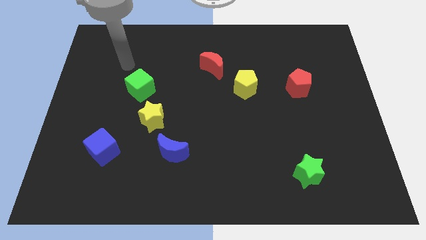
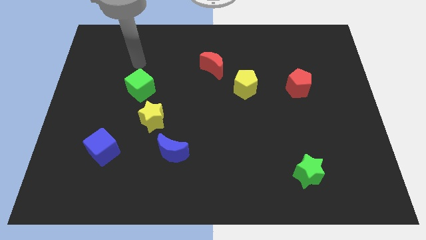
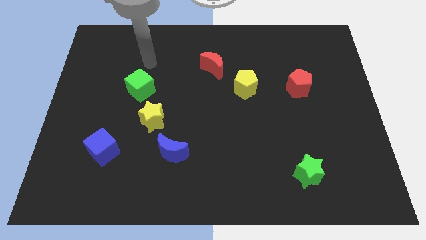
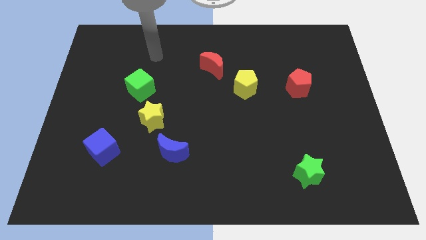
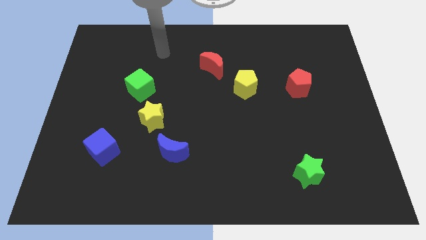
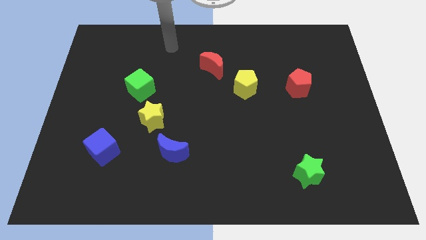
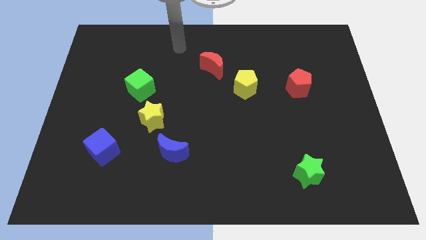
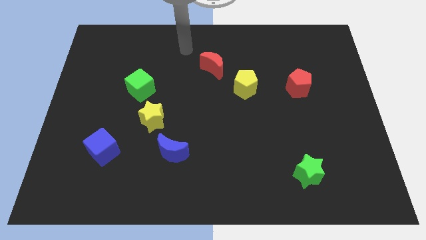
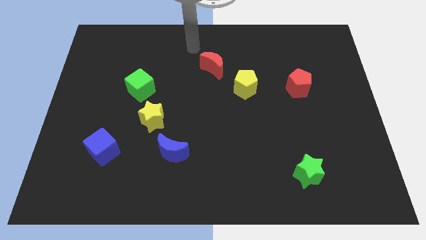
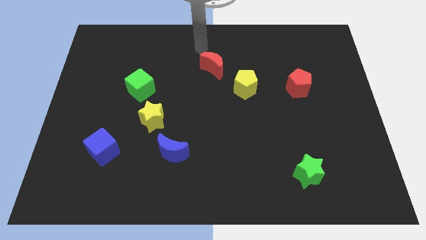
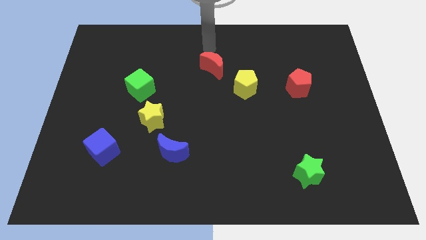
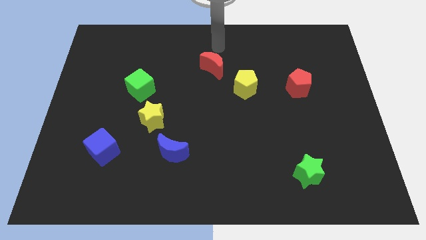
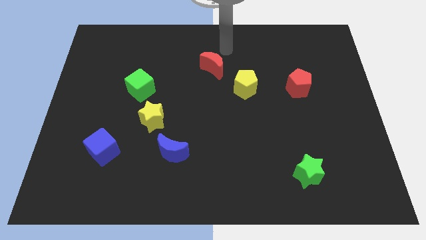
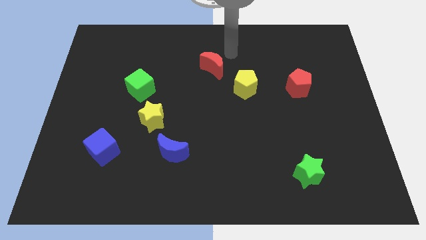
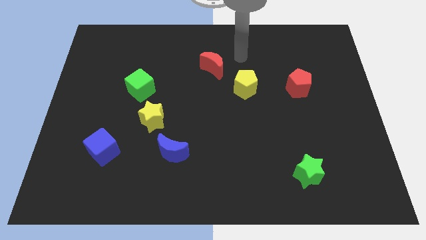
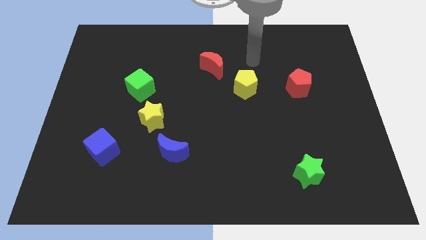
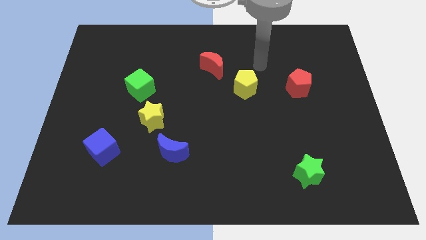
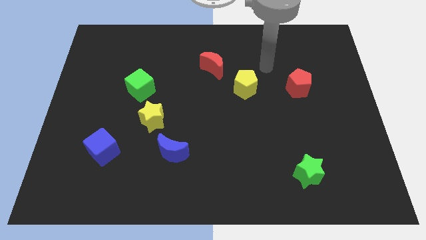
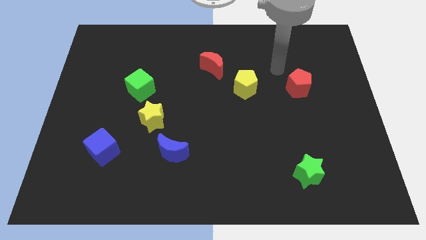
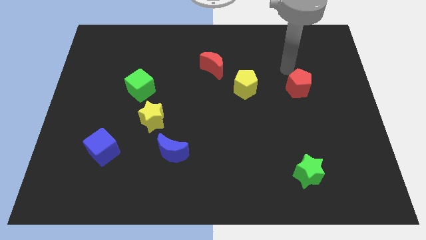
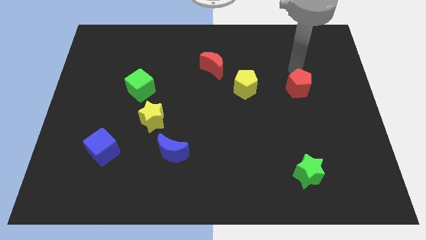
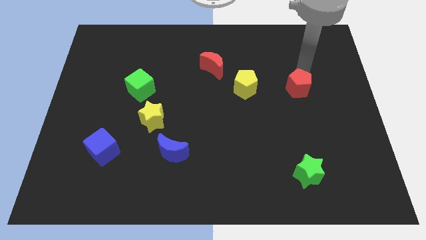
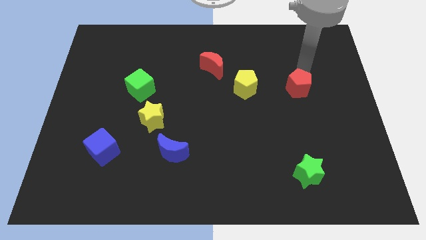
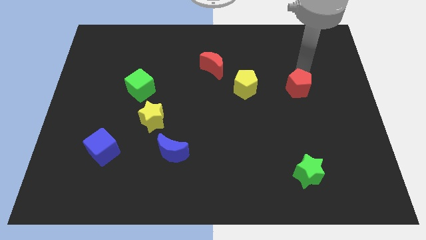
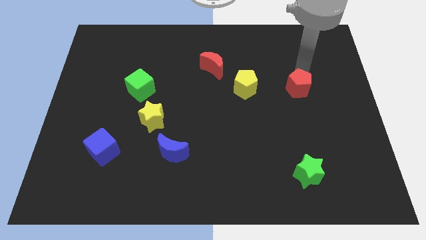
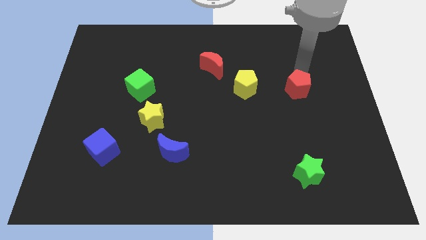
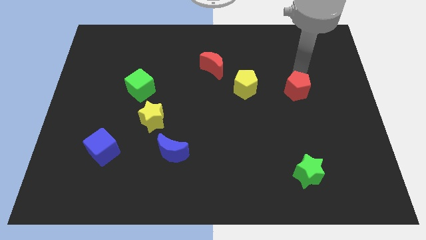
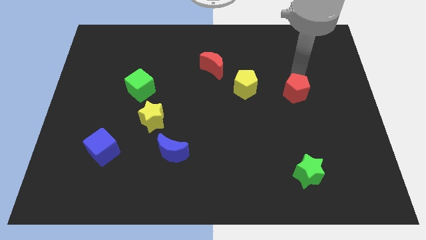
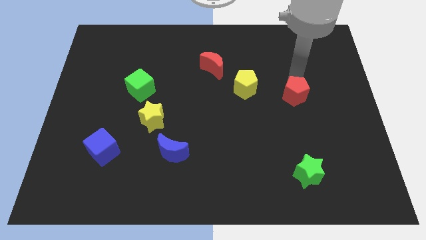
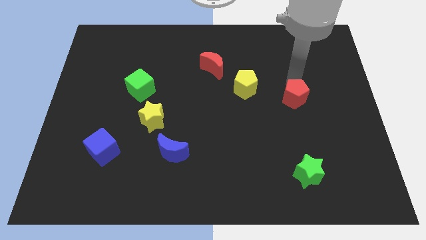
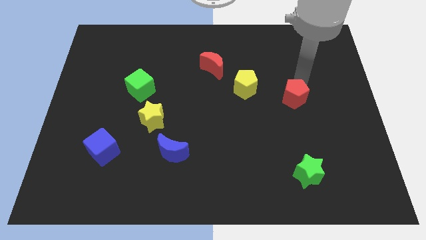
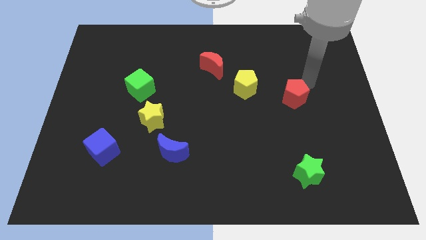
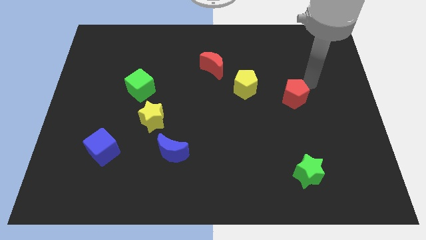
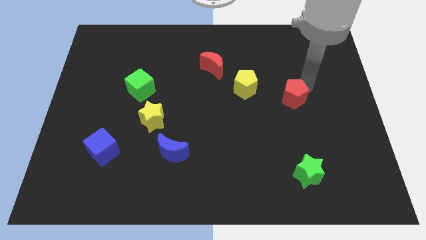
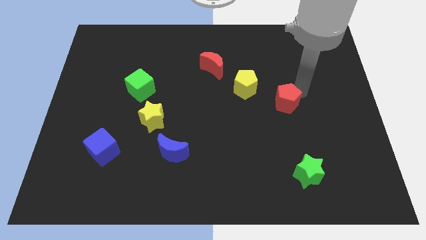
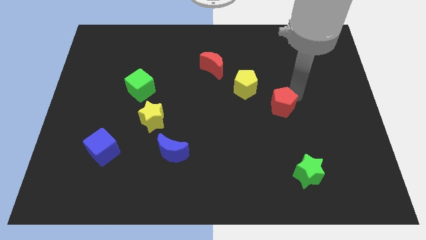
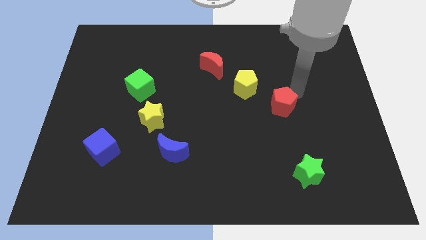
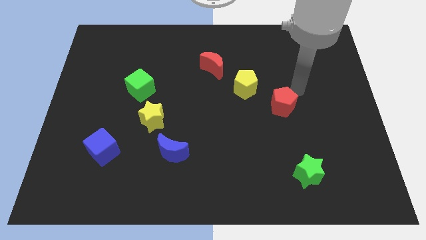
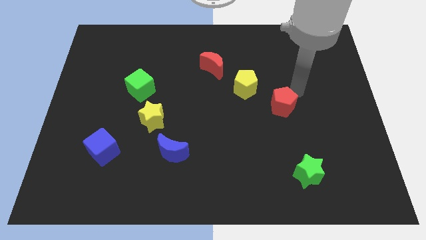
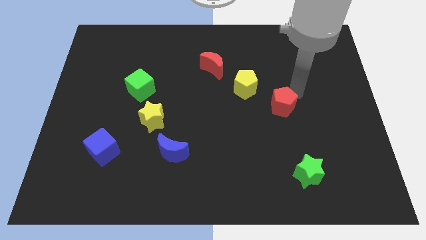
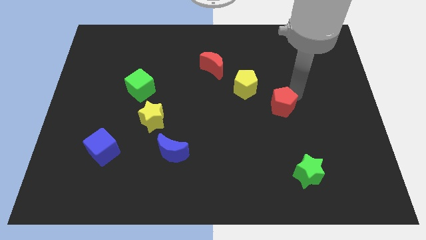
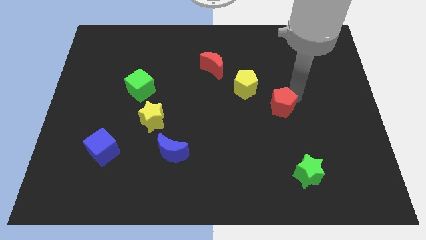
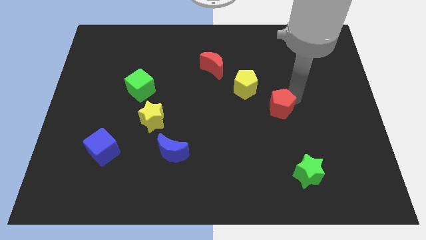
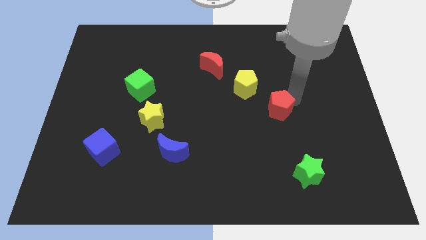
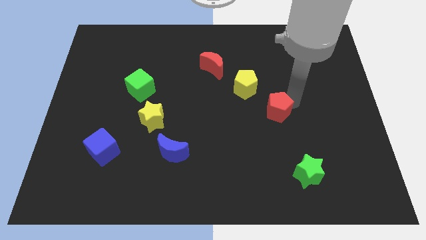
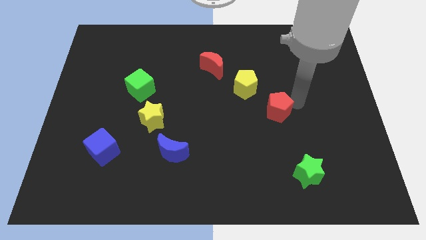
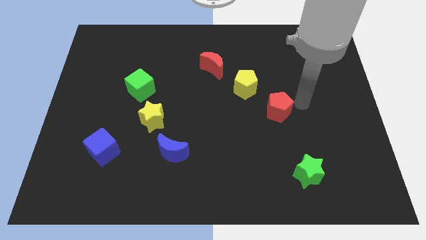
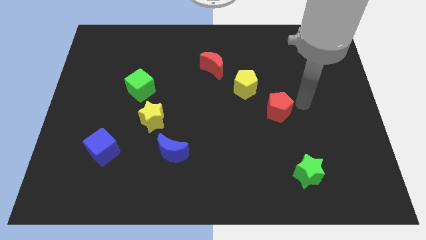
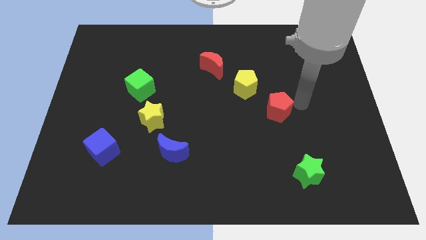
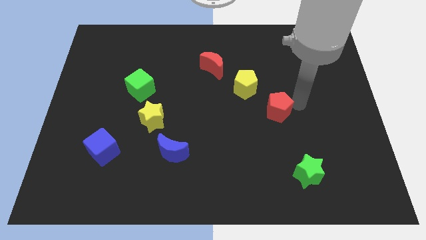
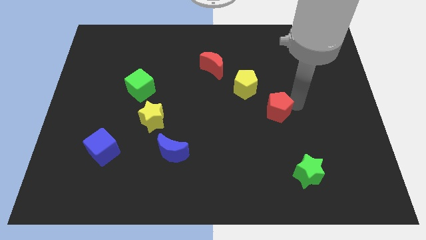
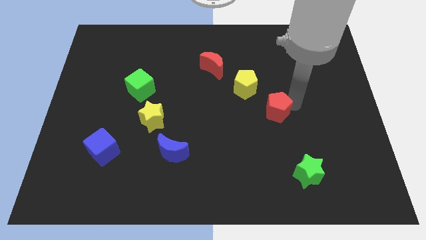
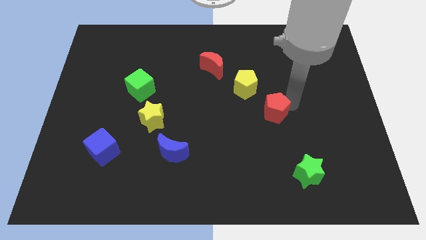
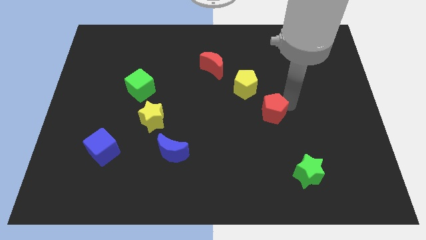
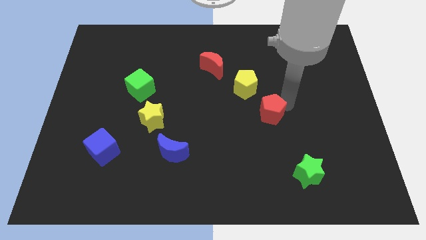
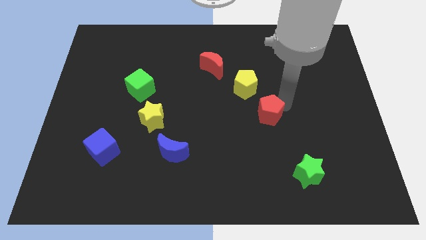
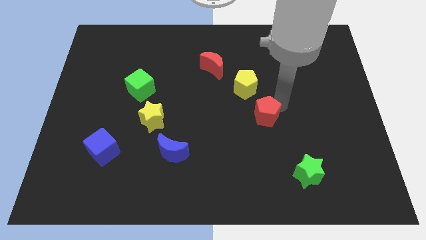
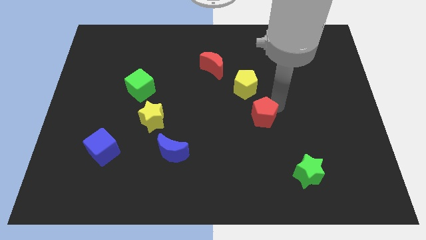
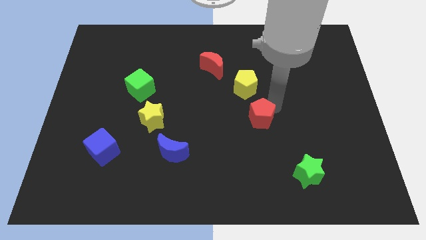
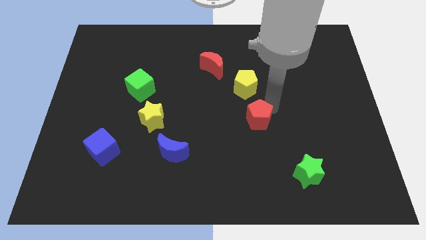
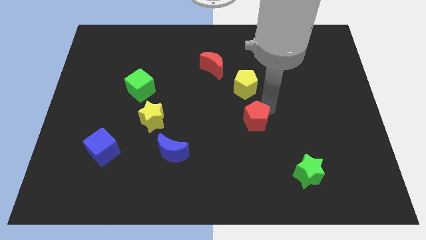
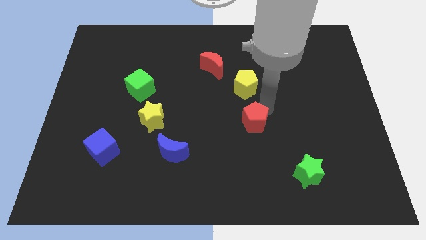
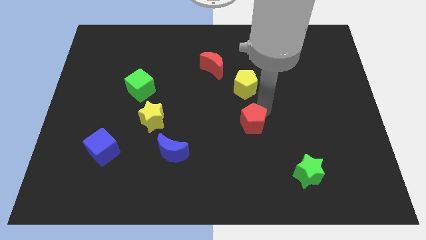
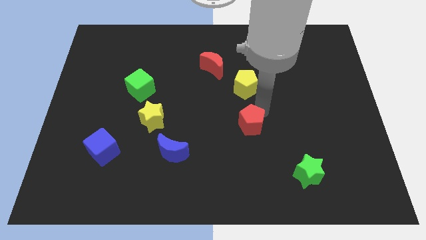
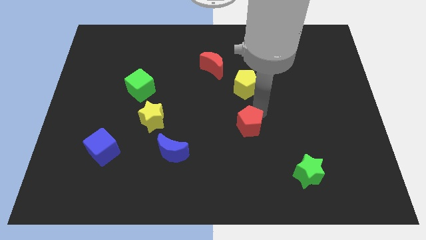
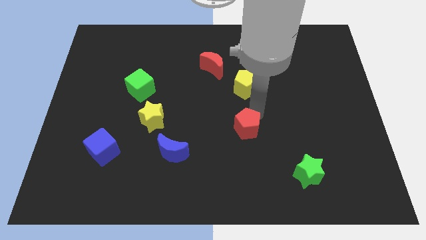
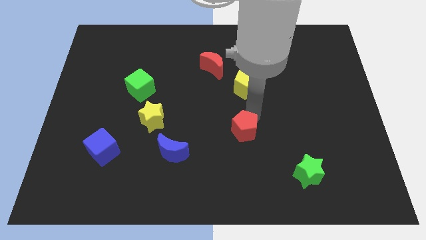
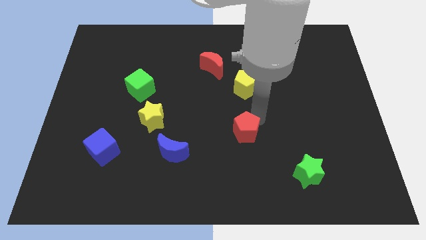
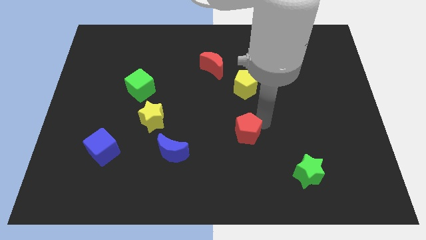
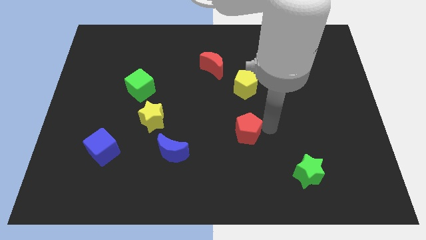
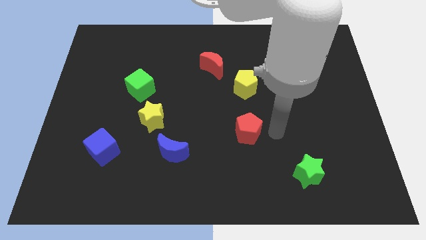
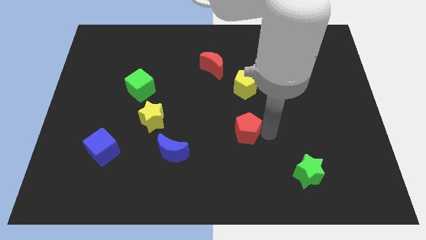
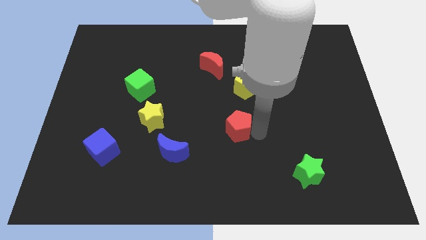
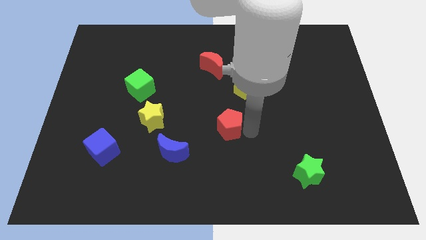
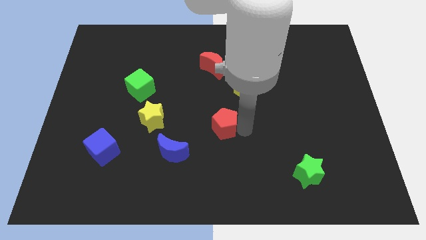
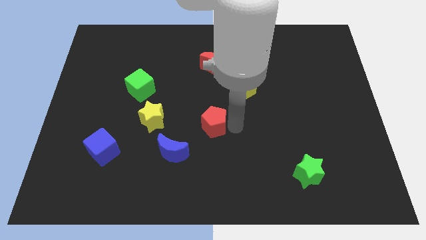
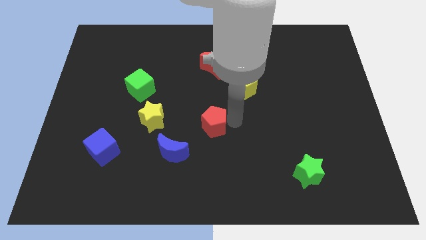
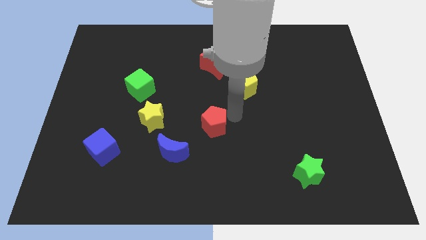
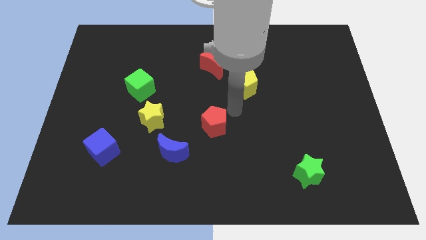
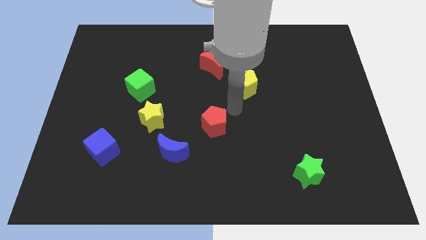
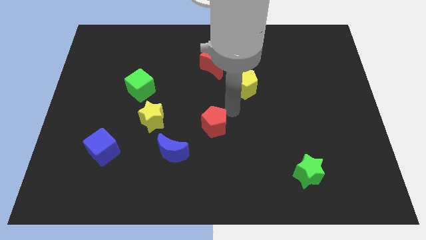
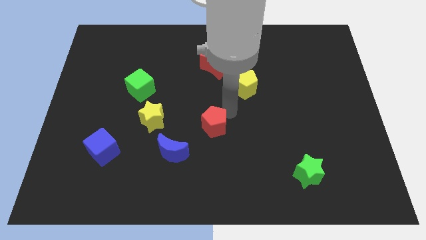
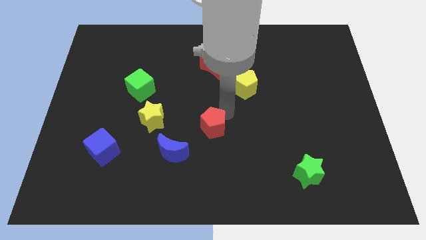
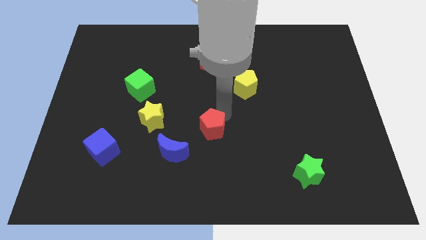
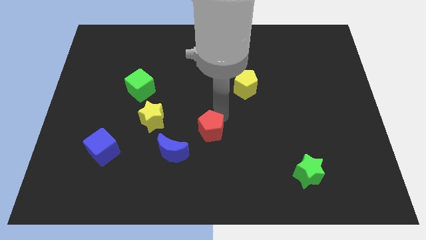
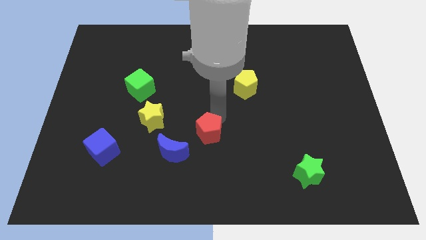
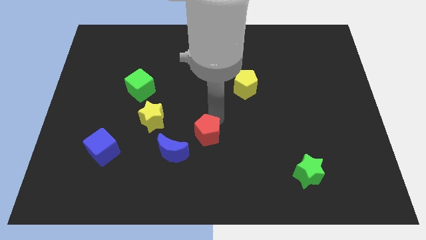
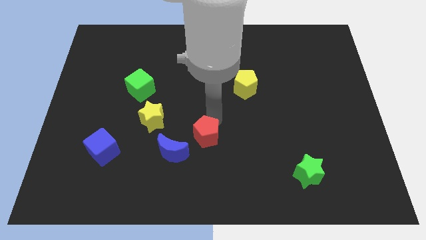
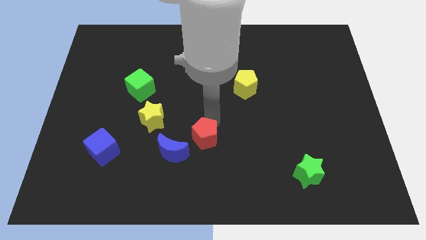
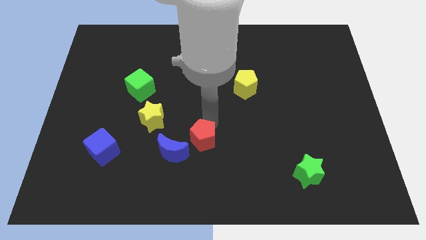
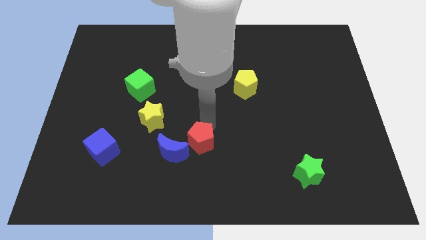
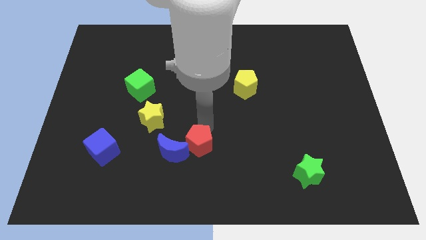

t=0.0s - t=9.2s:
slide the red pentagon to the blue moon
